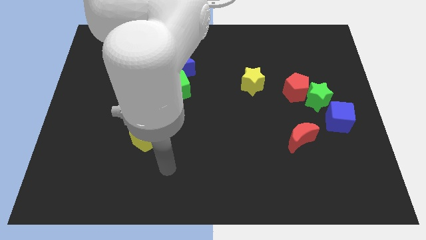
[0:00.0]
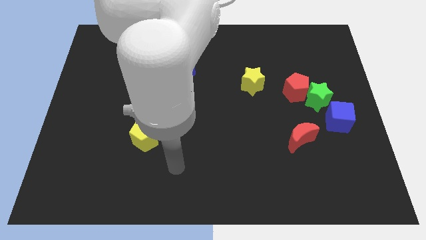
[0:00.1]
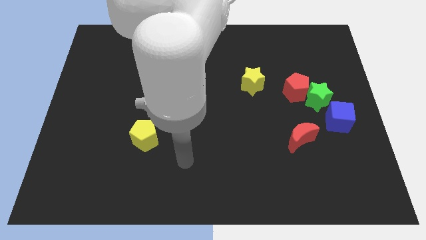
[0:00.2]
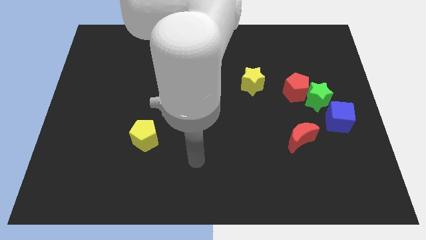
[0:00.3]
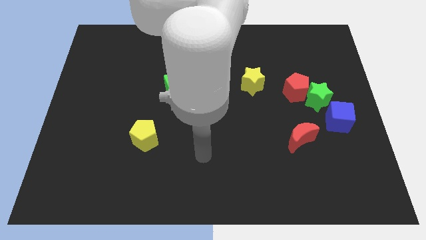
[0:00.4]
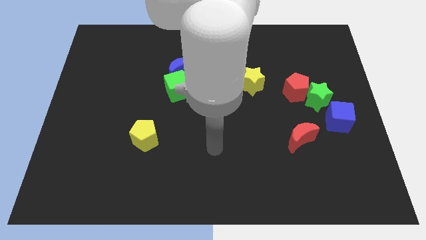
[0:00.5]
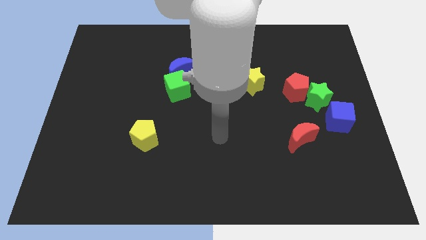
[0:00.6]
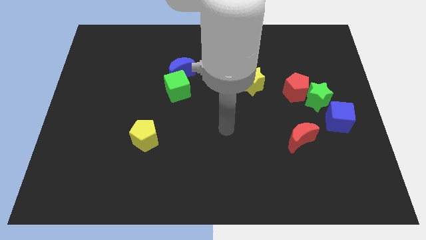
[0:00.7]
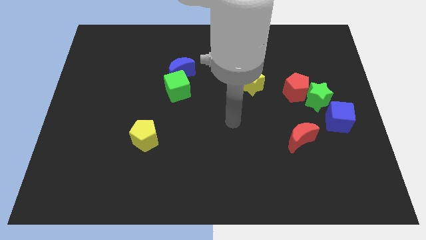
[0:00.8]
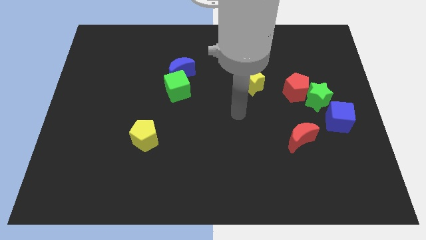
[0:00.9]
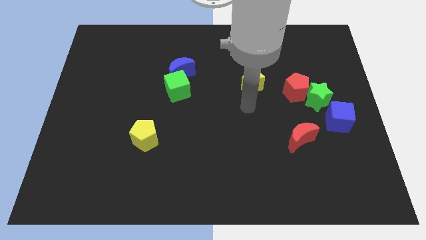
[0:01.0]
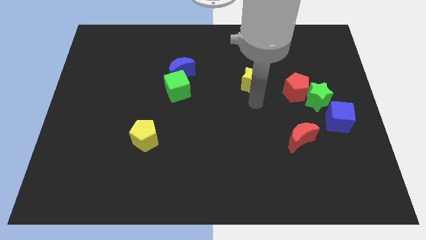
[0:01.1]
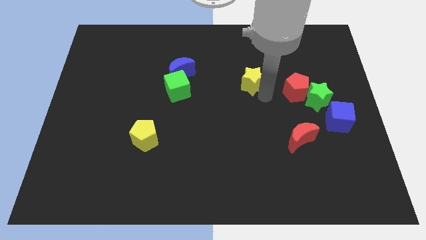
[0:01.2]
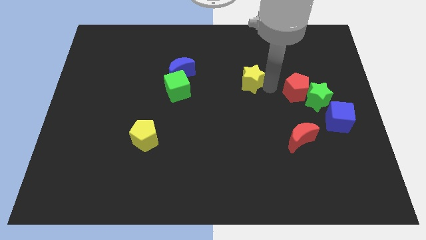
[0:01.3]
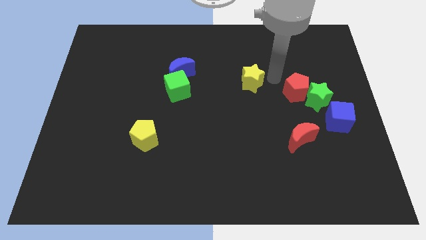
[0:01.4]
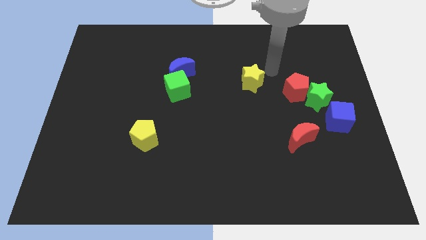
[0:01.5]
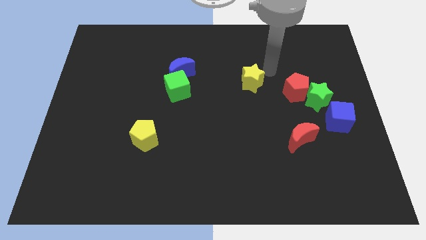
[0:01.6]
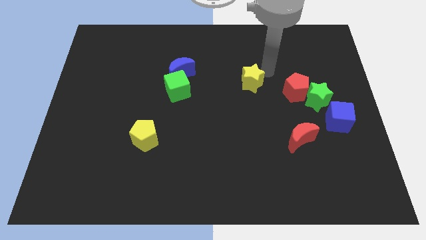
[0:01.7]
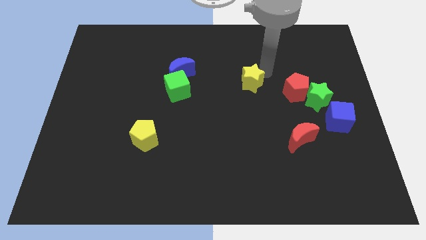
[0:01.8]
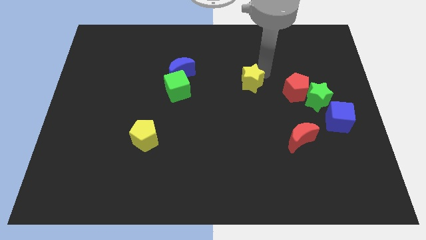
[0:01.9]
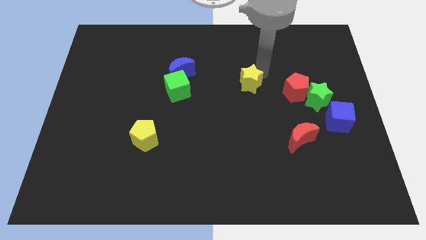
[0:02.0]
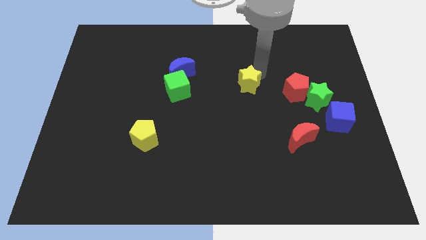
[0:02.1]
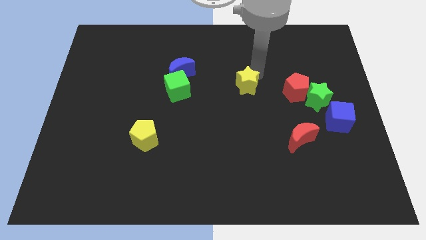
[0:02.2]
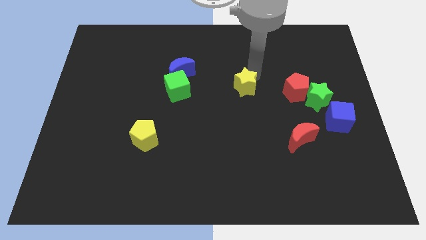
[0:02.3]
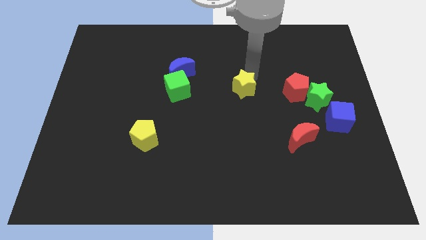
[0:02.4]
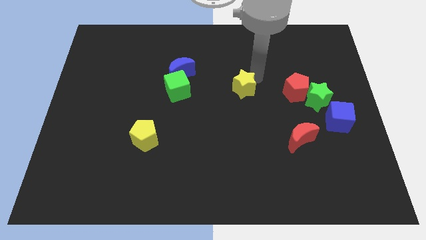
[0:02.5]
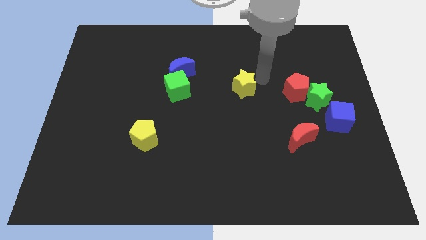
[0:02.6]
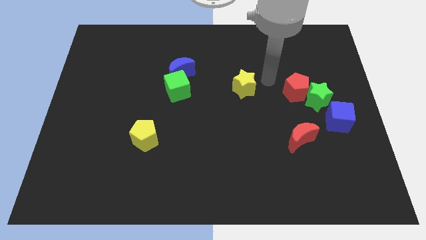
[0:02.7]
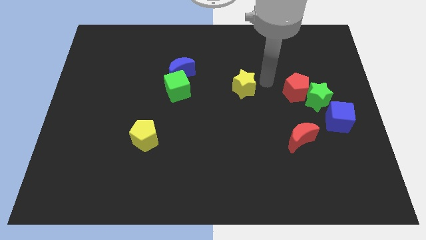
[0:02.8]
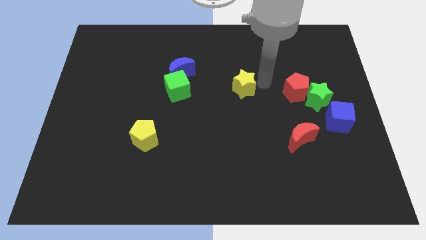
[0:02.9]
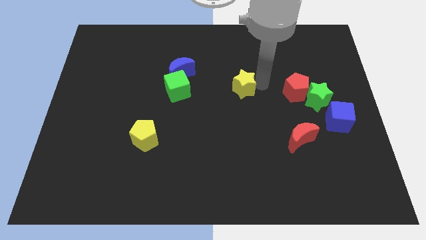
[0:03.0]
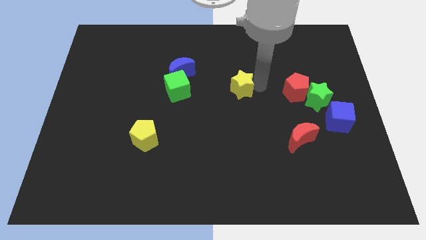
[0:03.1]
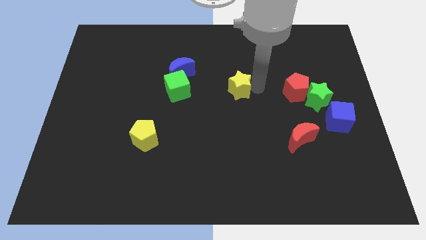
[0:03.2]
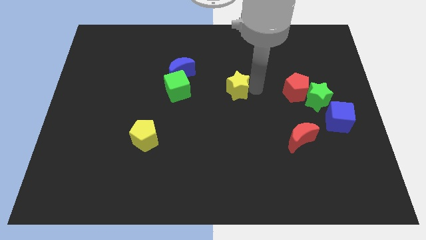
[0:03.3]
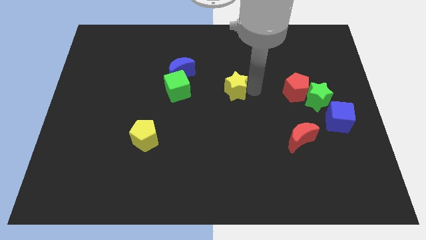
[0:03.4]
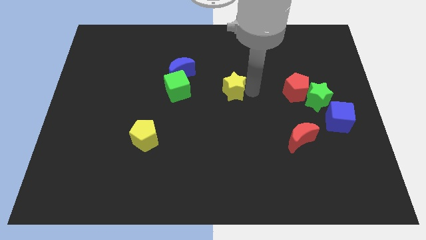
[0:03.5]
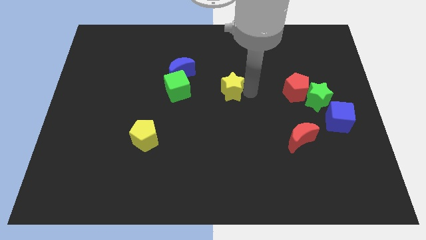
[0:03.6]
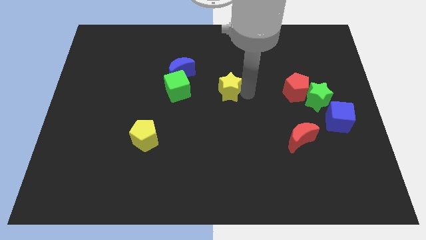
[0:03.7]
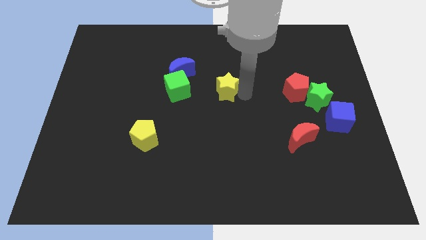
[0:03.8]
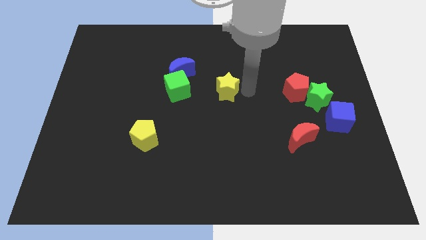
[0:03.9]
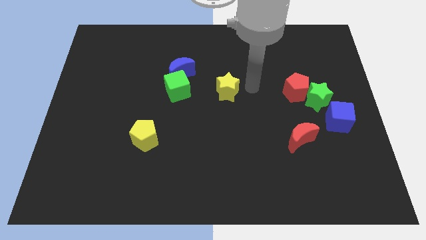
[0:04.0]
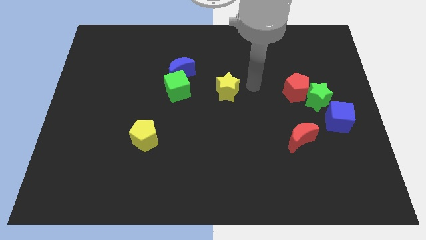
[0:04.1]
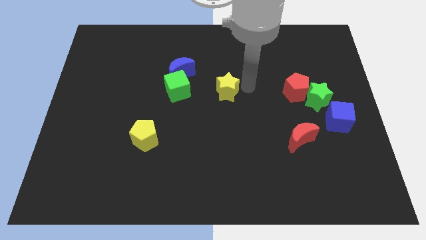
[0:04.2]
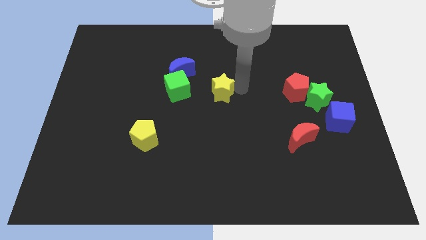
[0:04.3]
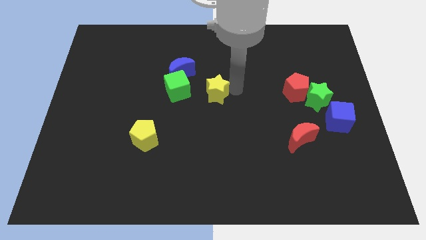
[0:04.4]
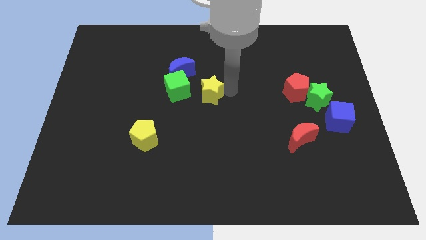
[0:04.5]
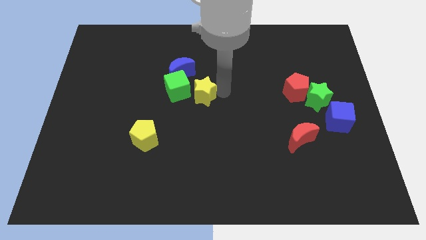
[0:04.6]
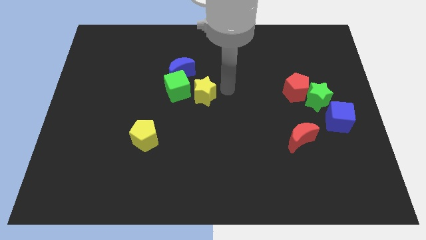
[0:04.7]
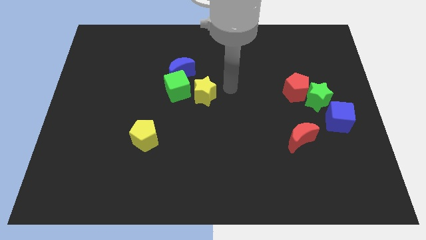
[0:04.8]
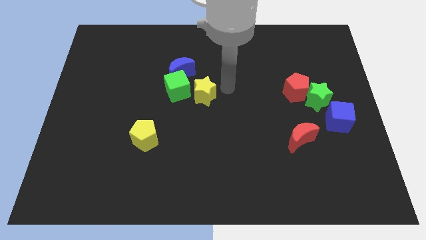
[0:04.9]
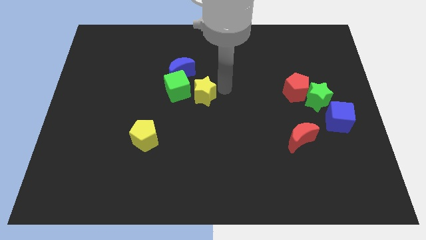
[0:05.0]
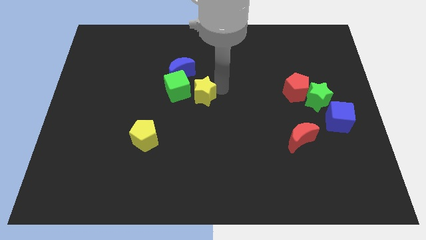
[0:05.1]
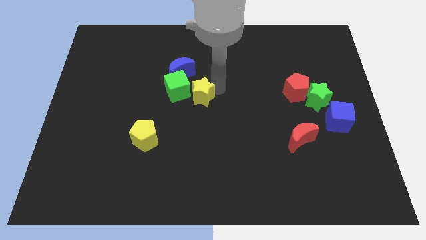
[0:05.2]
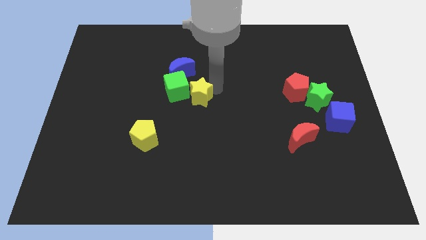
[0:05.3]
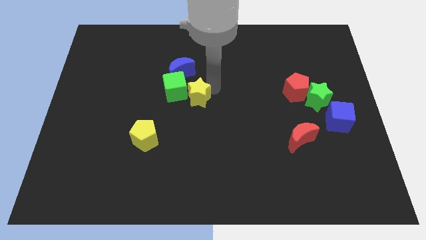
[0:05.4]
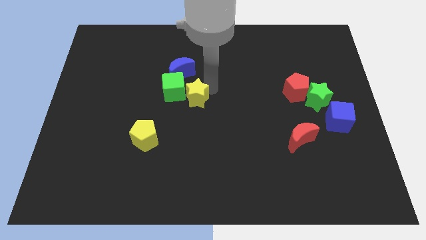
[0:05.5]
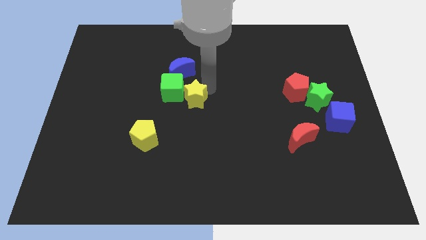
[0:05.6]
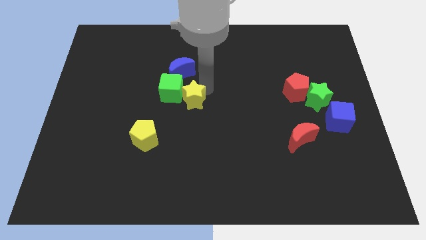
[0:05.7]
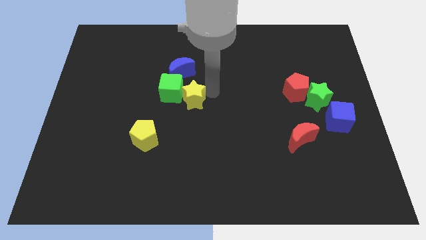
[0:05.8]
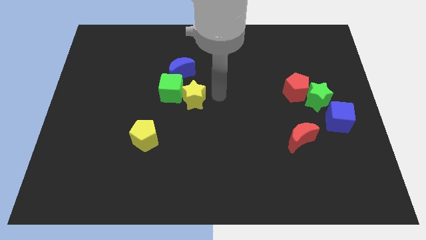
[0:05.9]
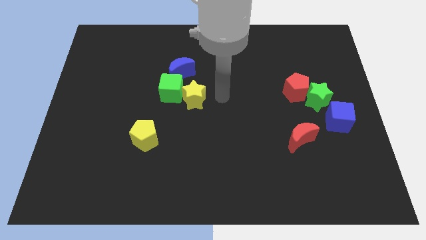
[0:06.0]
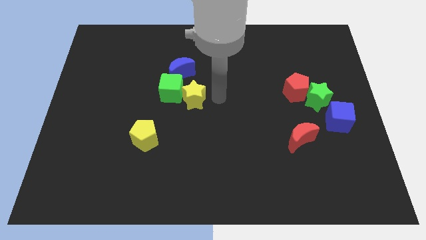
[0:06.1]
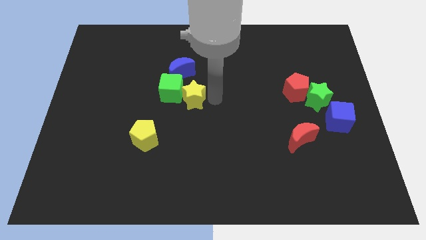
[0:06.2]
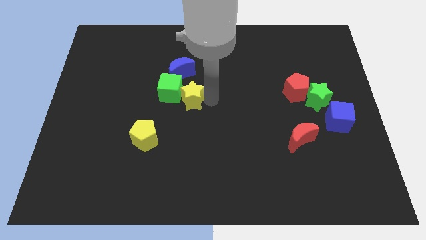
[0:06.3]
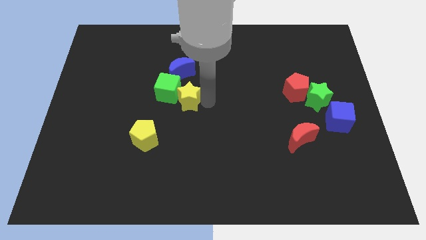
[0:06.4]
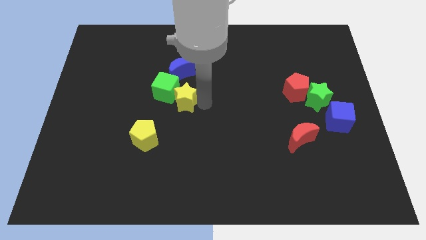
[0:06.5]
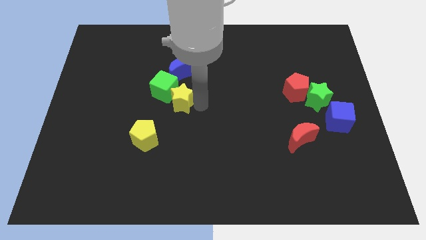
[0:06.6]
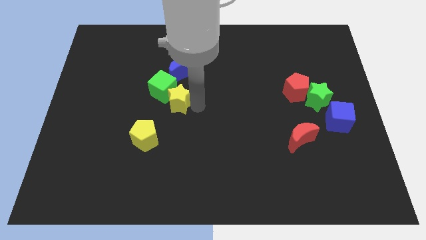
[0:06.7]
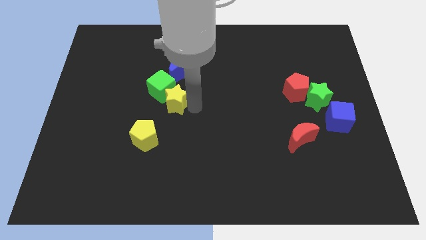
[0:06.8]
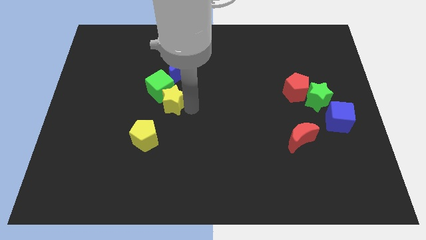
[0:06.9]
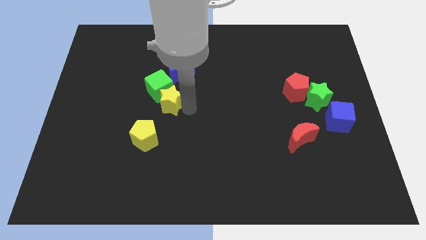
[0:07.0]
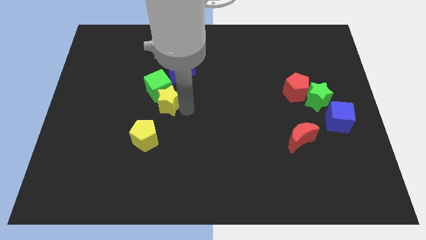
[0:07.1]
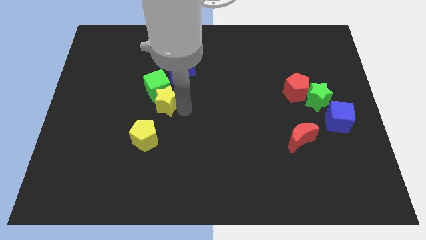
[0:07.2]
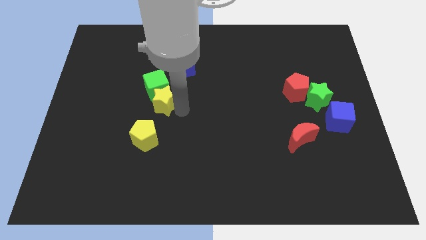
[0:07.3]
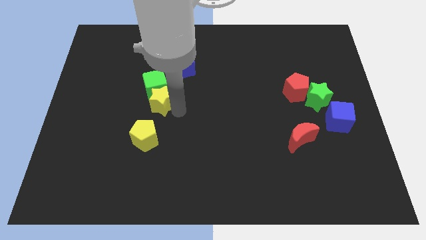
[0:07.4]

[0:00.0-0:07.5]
slide the yellow star left

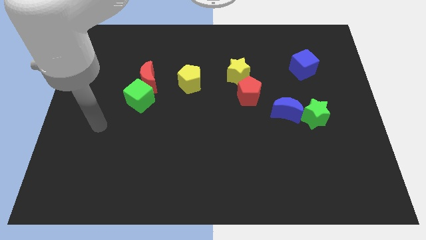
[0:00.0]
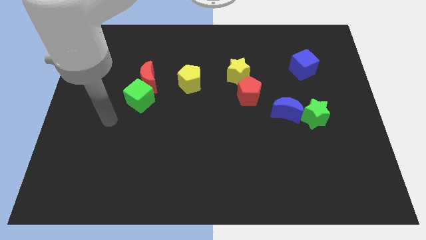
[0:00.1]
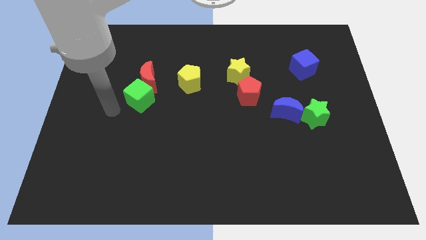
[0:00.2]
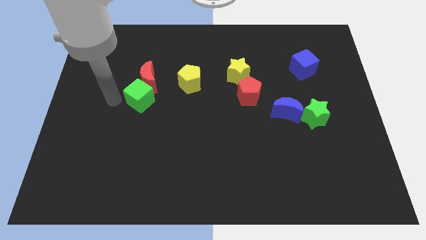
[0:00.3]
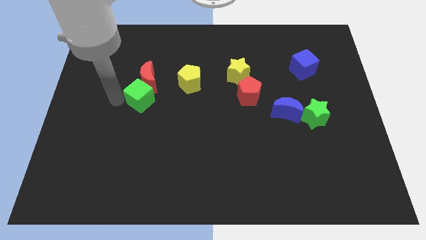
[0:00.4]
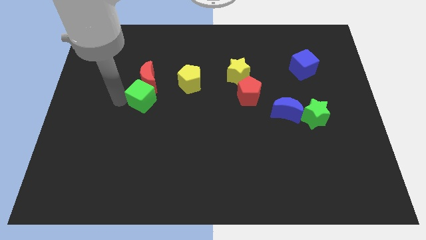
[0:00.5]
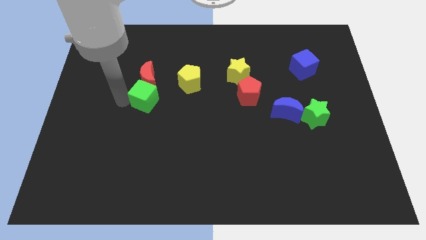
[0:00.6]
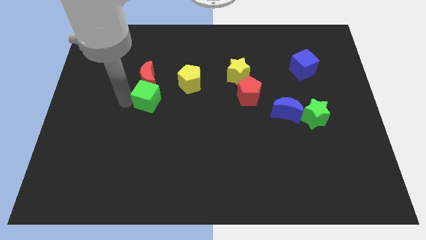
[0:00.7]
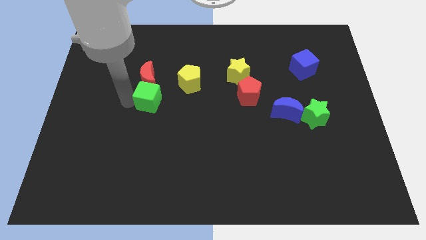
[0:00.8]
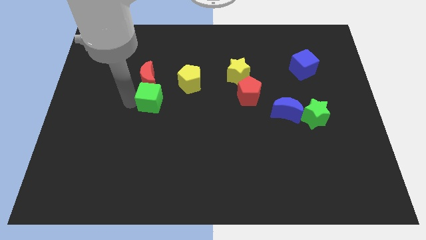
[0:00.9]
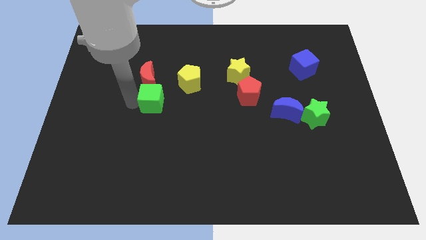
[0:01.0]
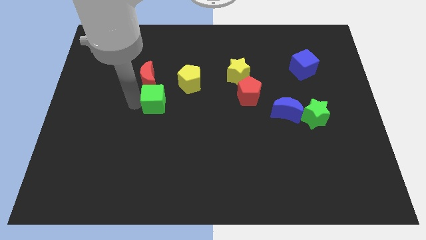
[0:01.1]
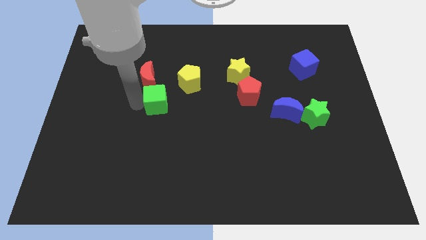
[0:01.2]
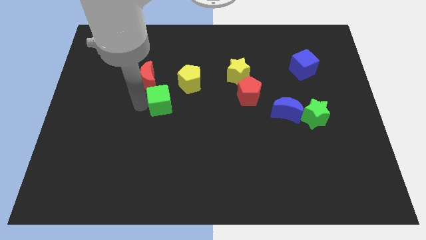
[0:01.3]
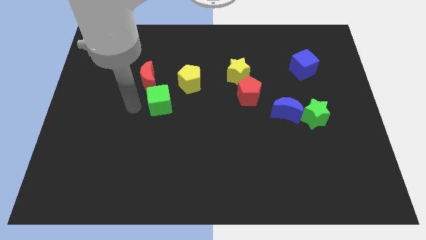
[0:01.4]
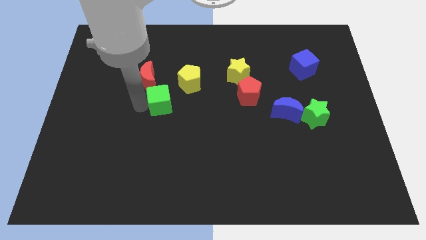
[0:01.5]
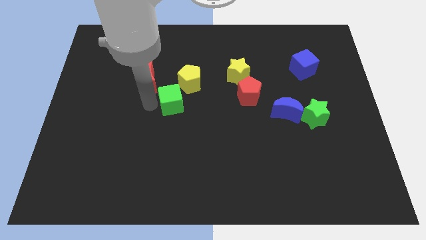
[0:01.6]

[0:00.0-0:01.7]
slide the green cube to the right a little bit
